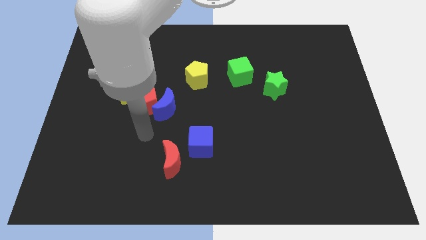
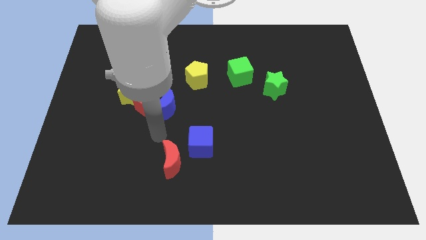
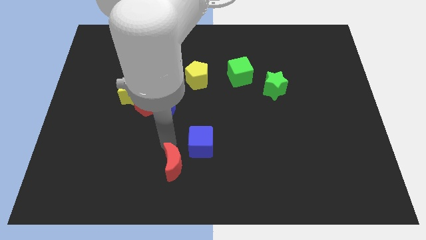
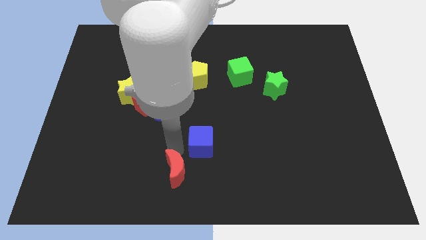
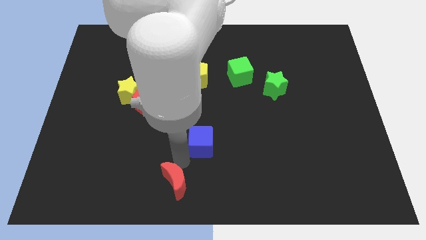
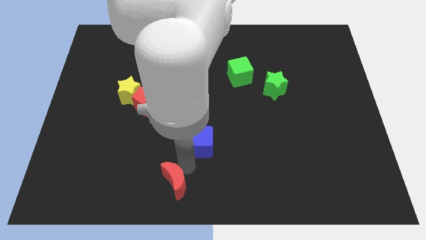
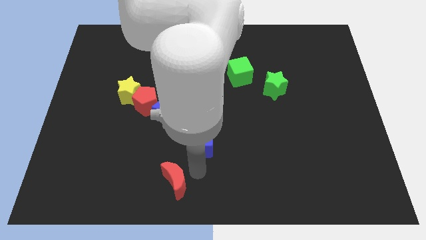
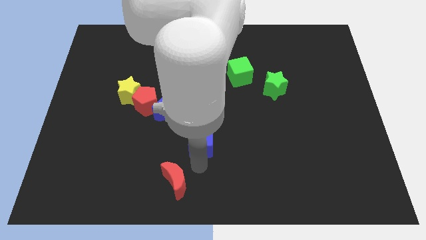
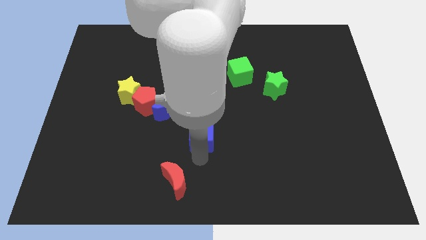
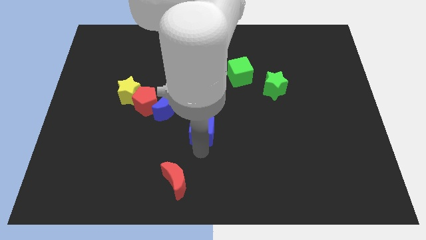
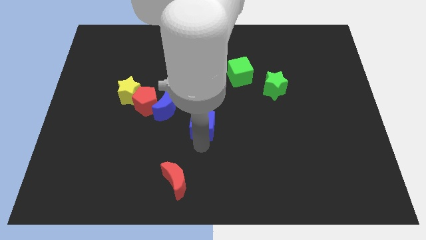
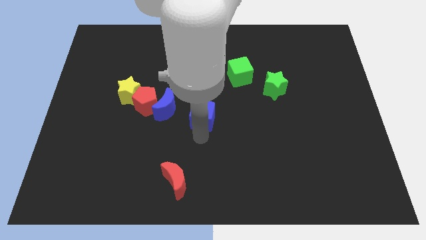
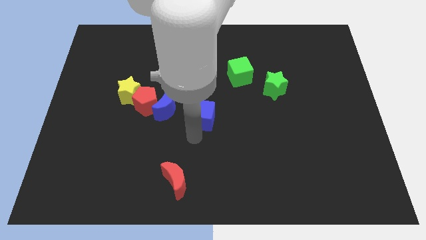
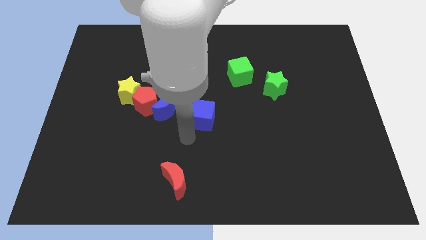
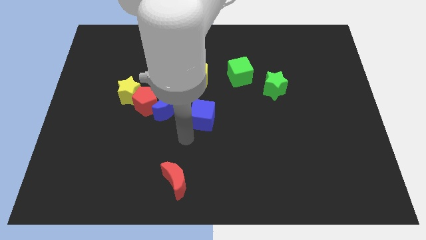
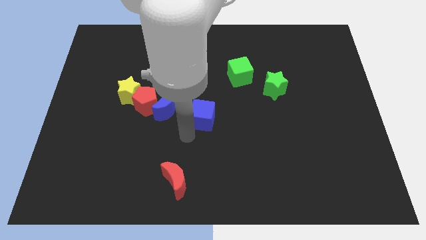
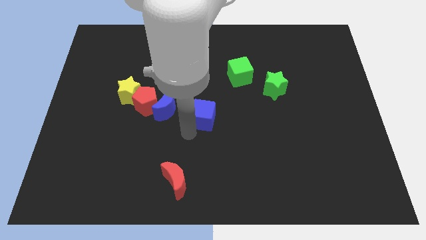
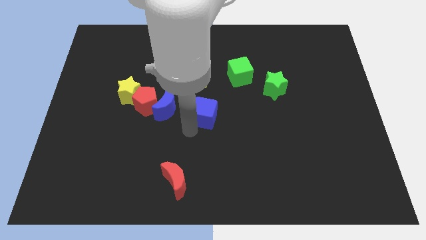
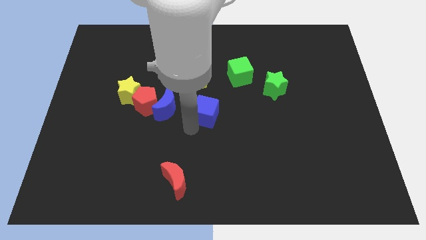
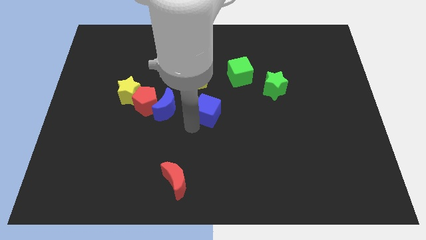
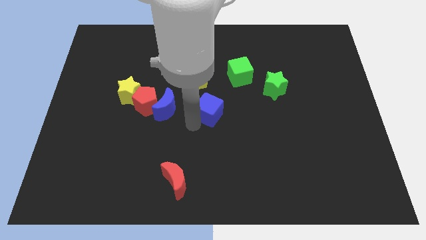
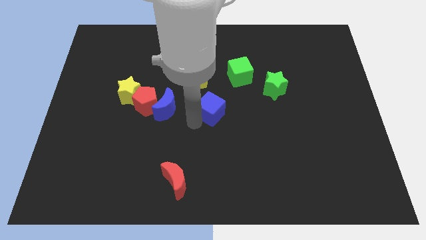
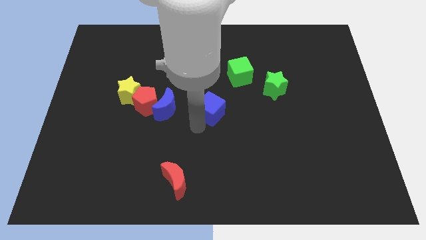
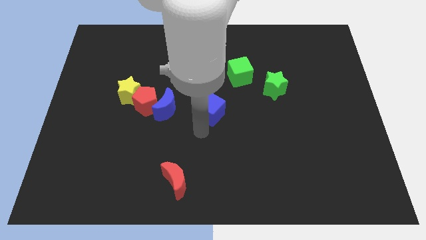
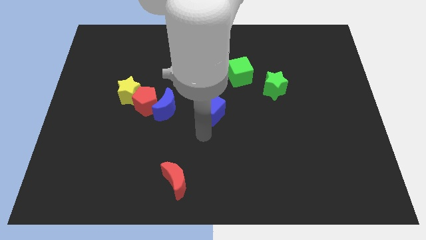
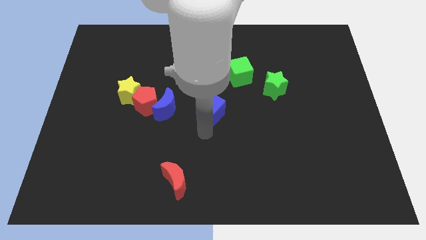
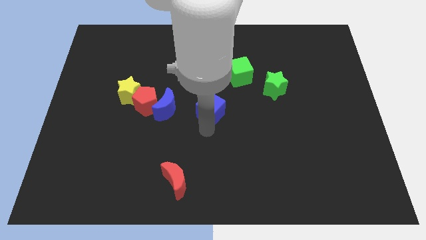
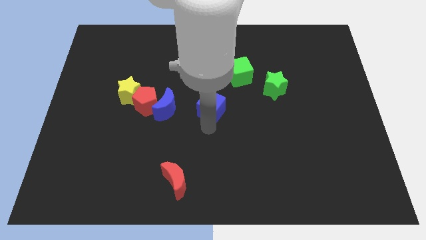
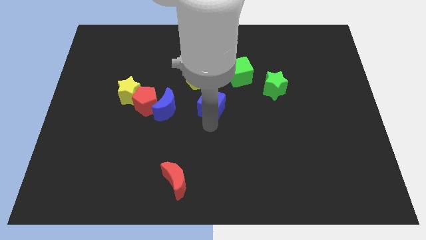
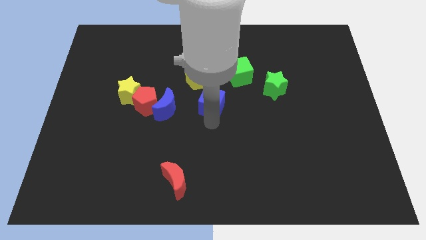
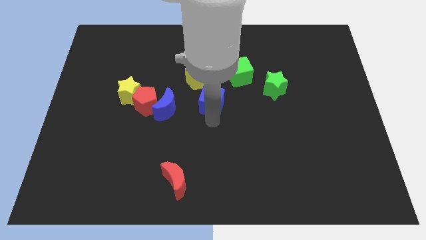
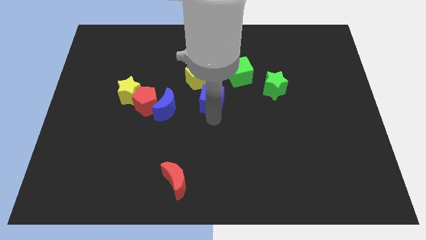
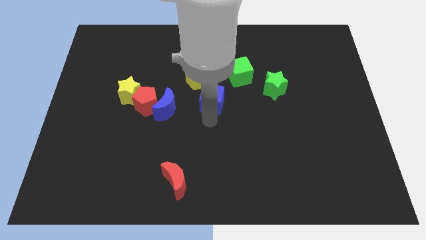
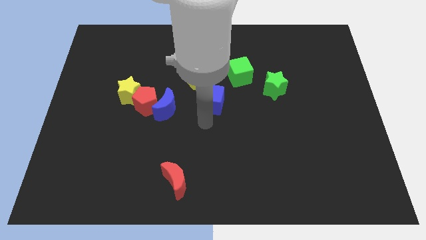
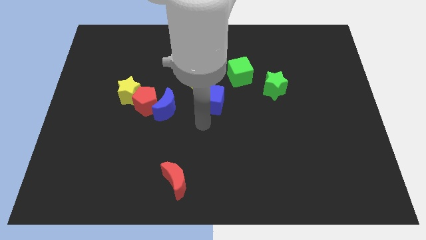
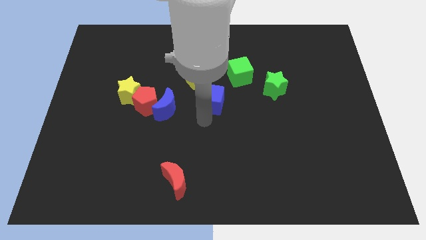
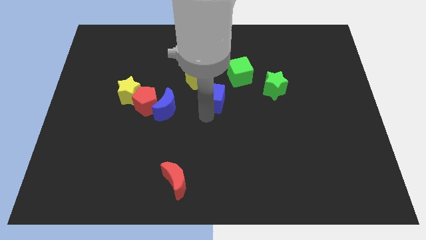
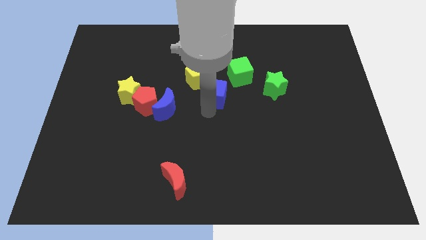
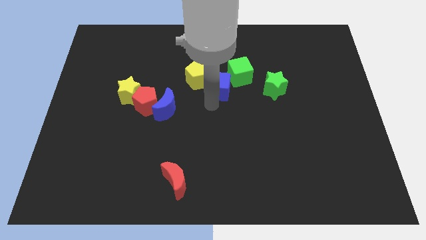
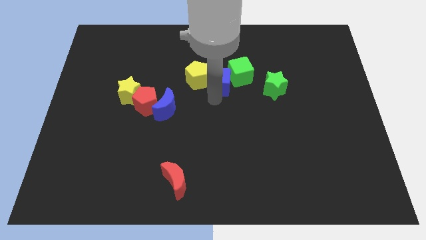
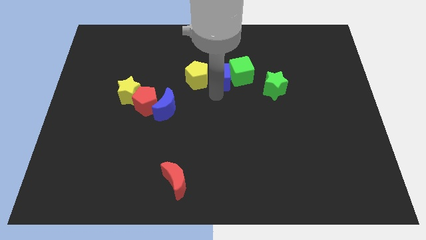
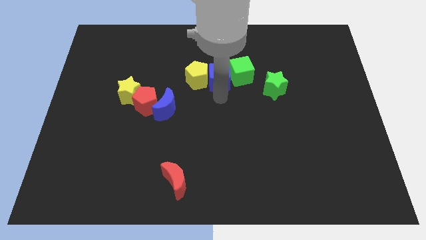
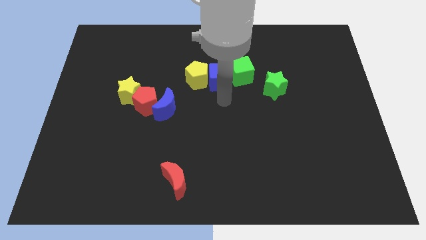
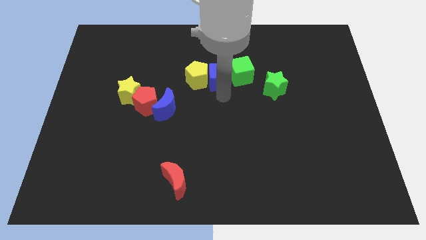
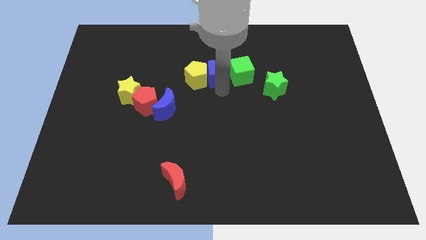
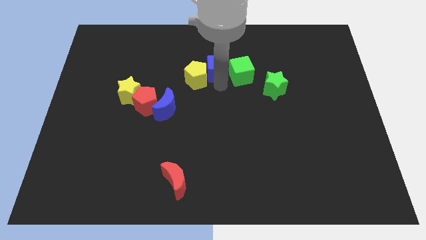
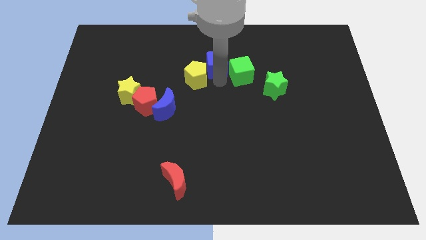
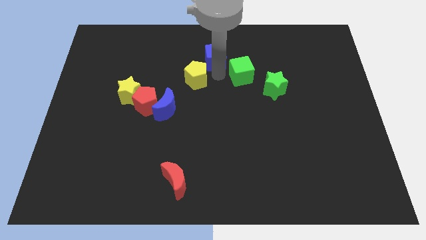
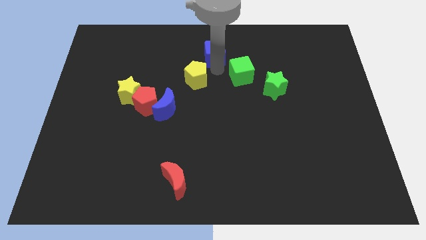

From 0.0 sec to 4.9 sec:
put the blue cube to the towards your base

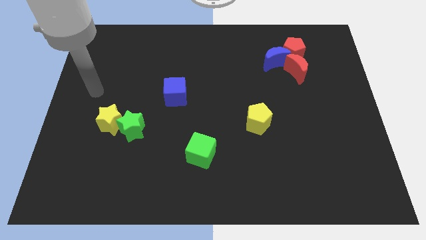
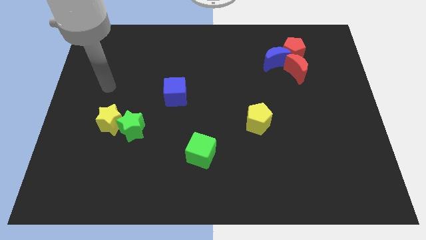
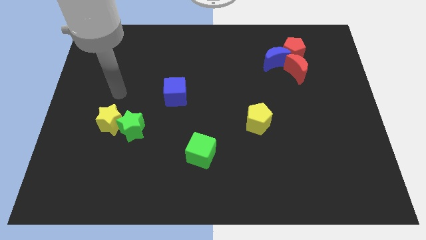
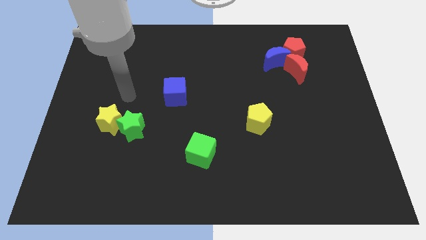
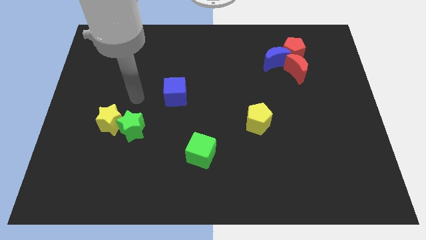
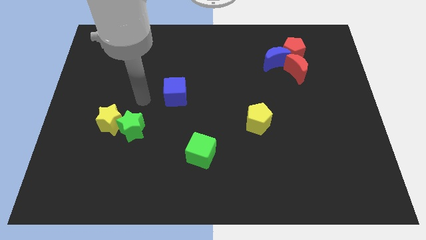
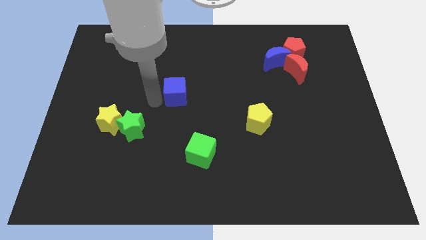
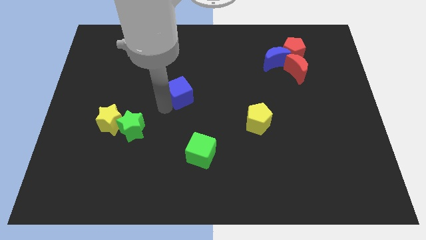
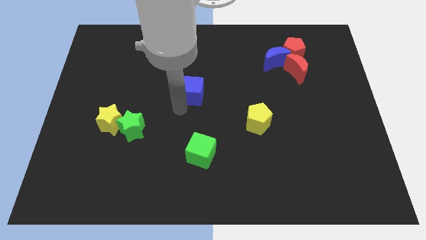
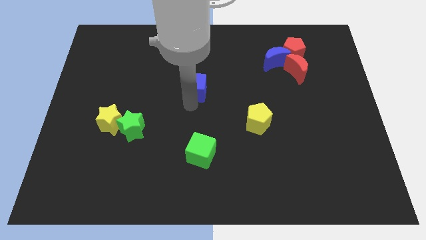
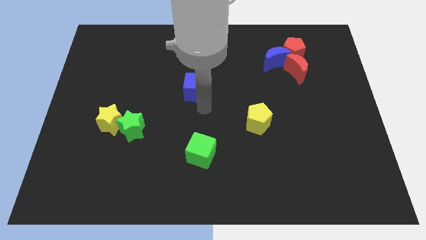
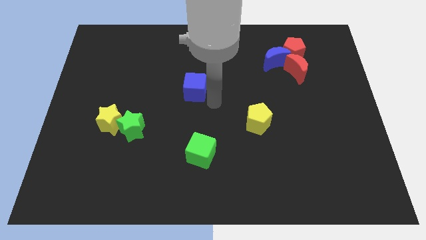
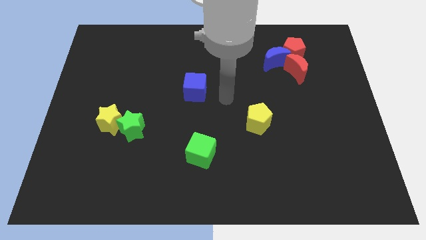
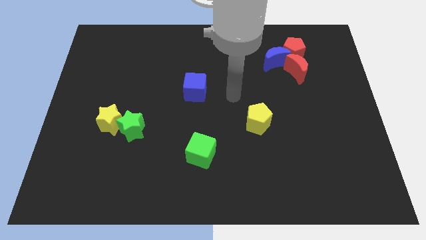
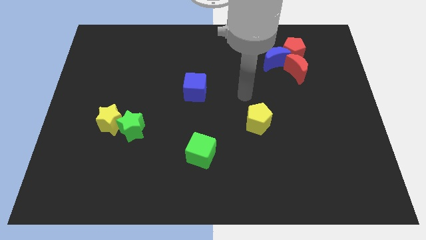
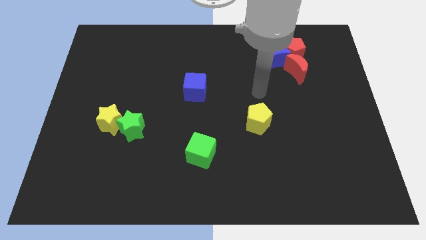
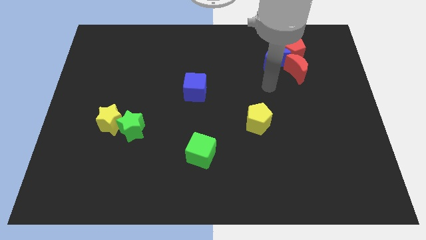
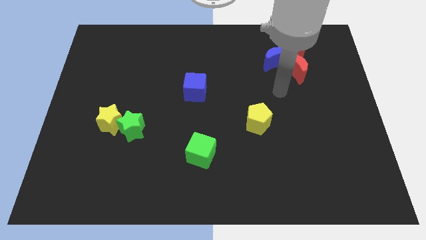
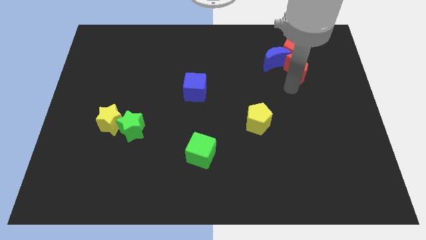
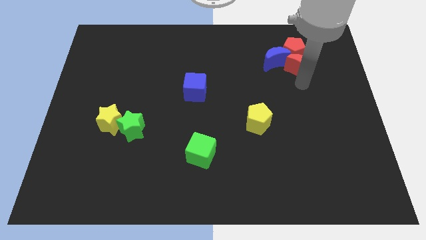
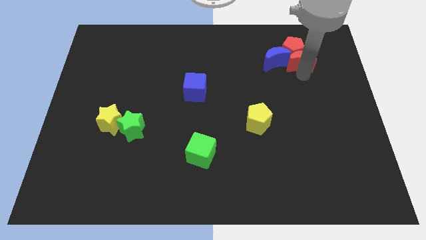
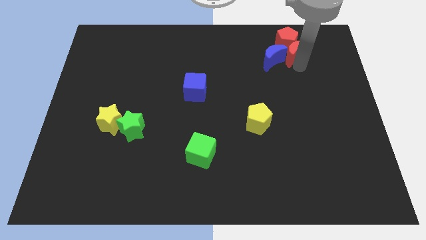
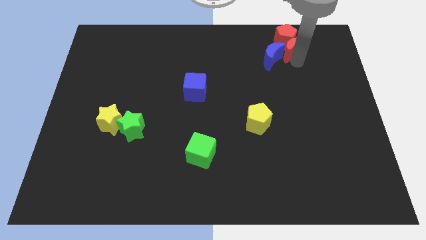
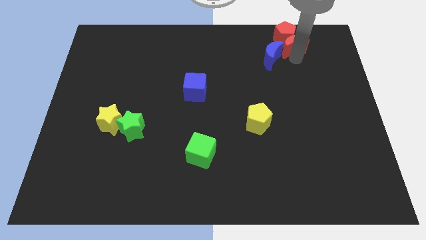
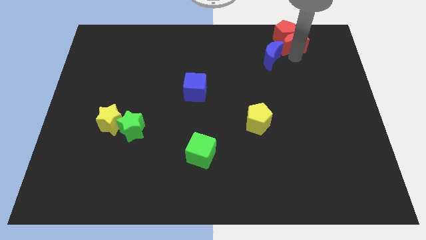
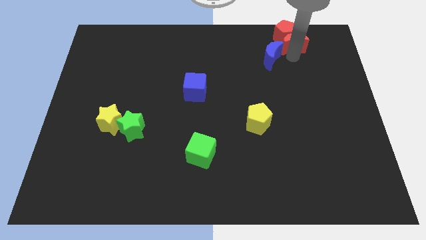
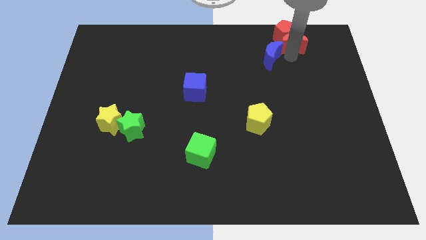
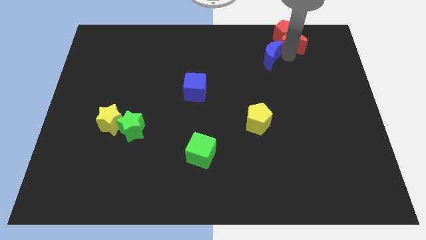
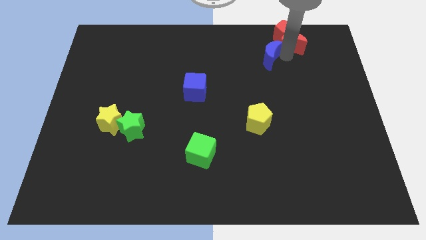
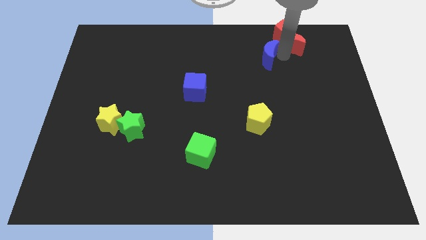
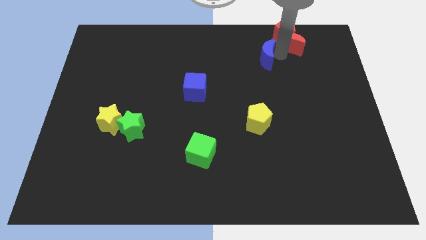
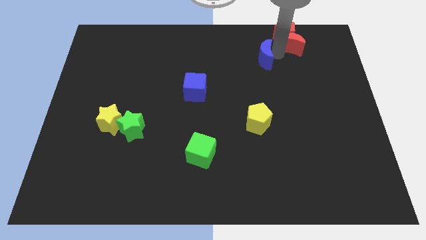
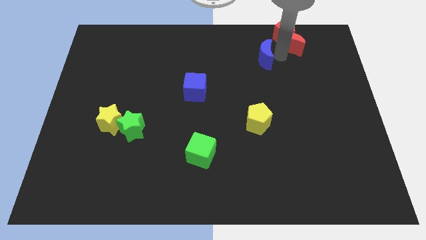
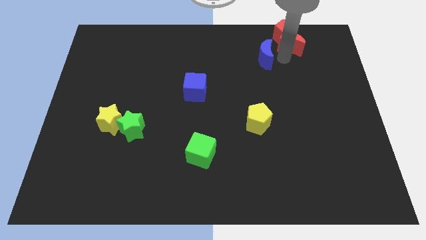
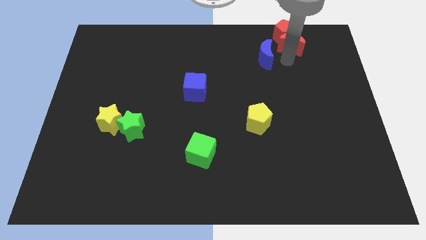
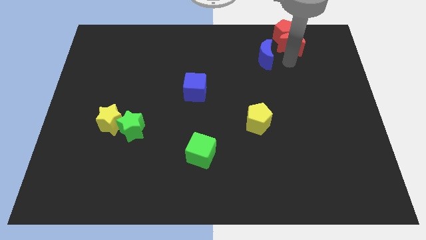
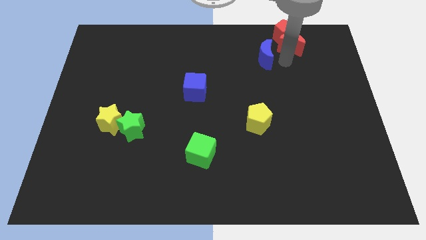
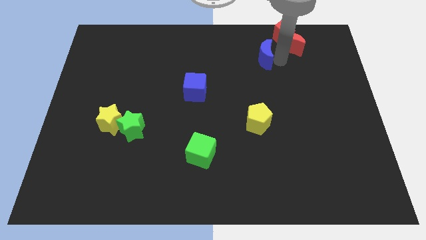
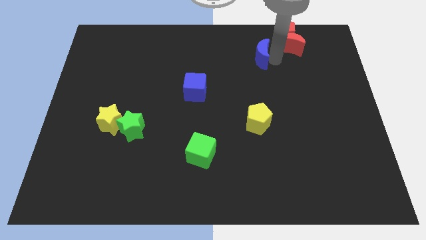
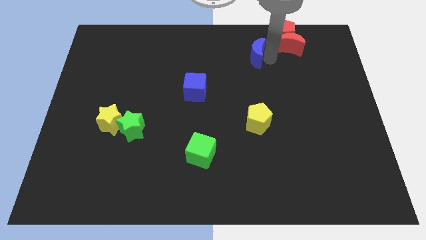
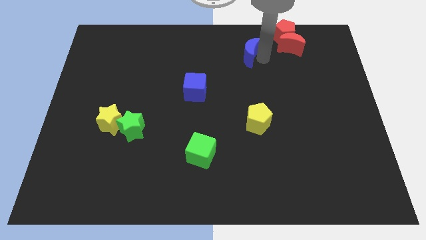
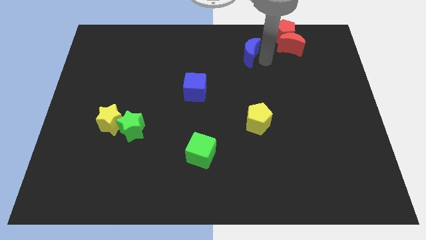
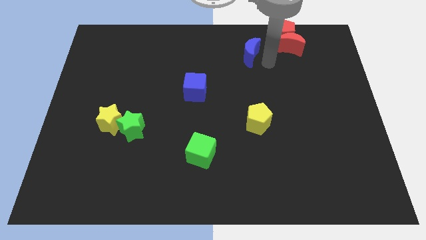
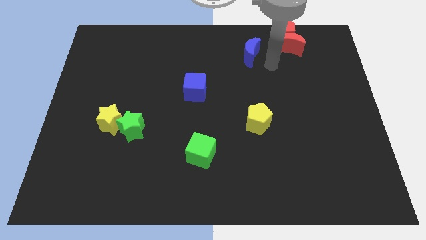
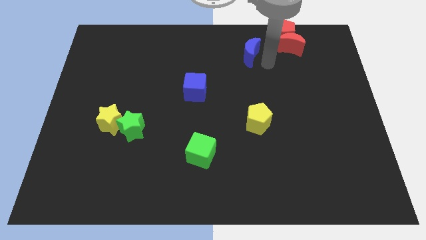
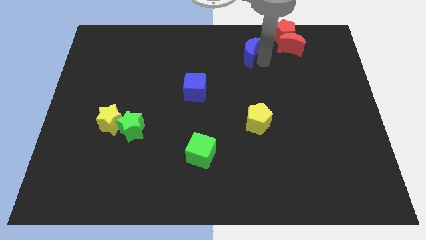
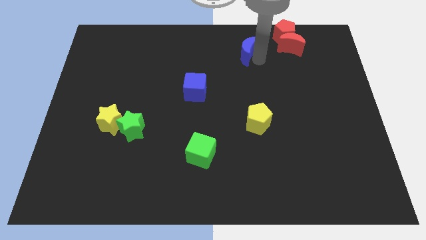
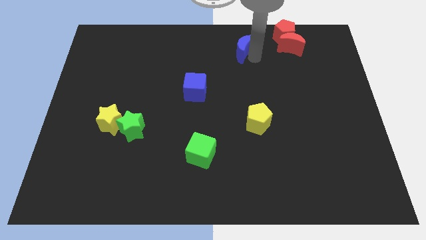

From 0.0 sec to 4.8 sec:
put the blue moon to the towards your base
